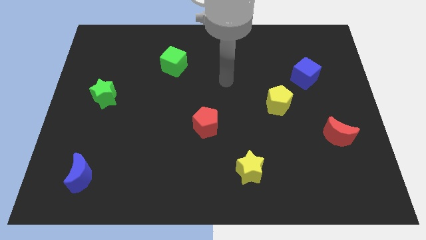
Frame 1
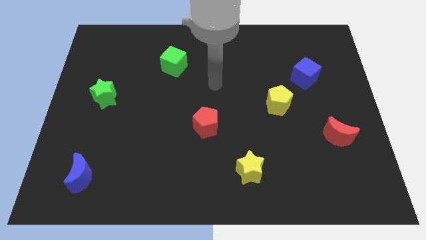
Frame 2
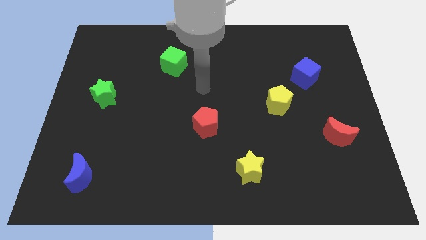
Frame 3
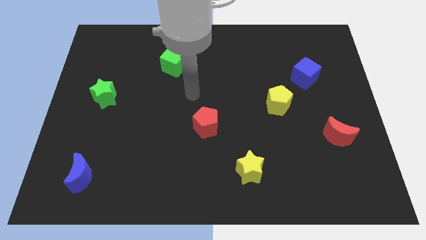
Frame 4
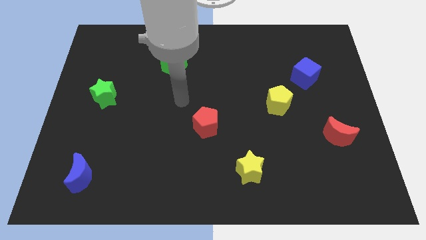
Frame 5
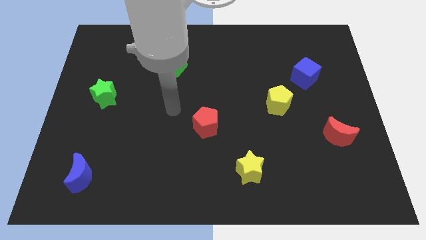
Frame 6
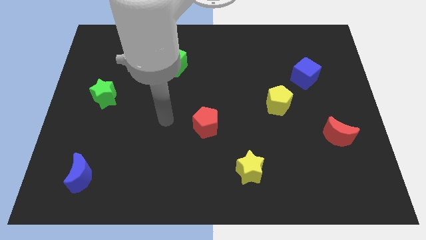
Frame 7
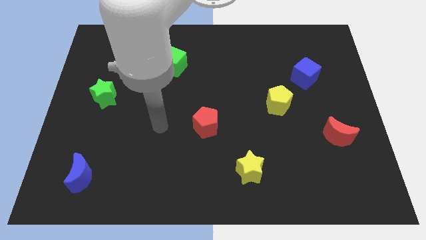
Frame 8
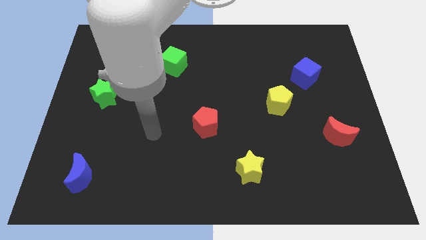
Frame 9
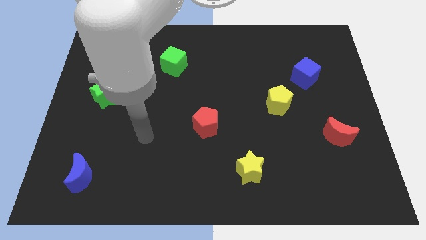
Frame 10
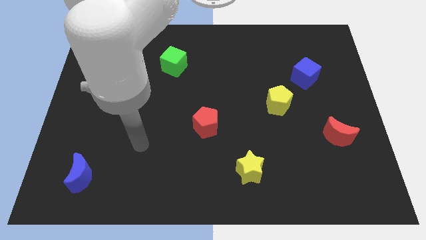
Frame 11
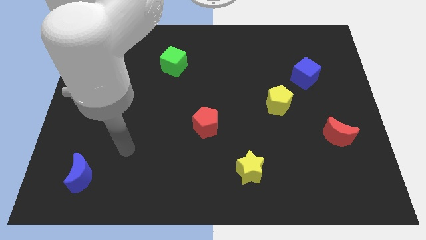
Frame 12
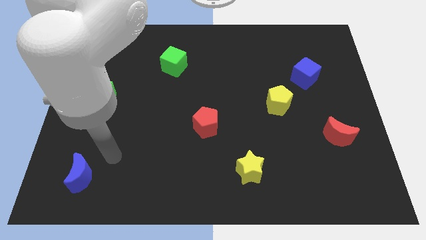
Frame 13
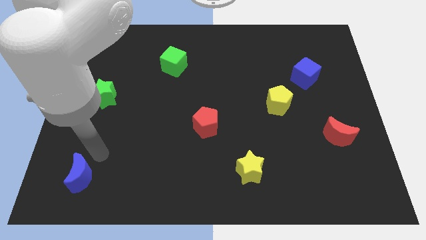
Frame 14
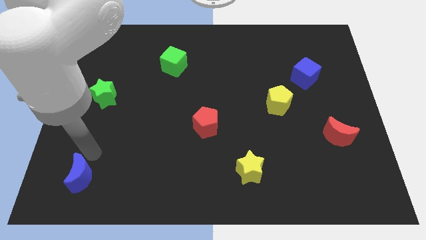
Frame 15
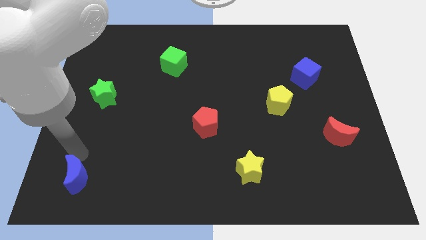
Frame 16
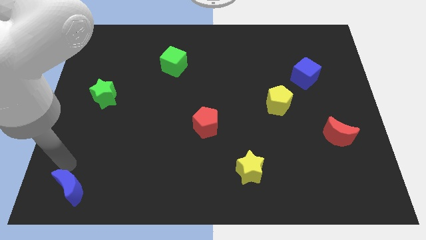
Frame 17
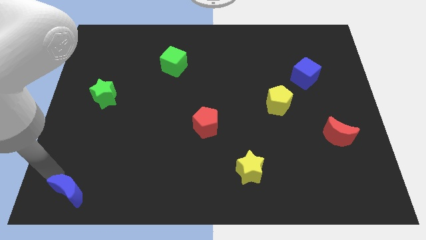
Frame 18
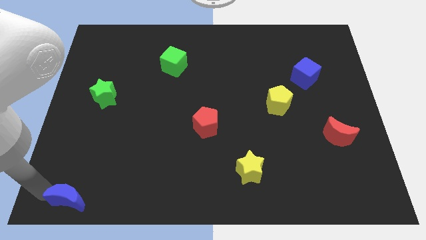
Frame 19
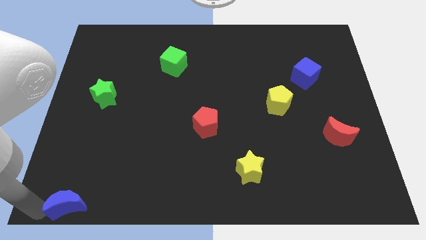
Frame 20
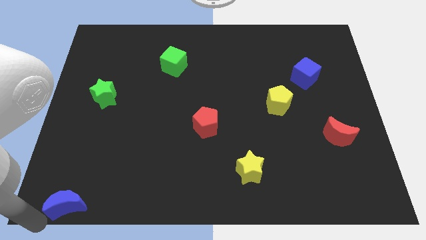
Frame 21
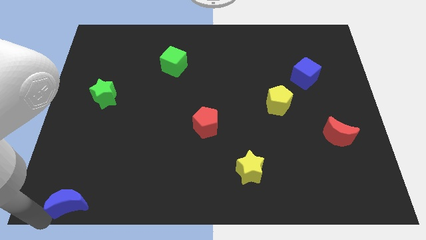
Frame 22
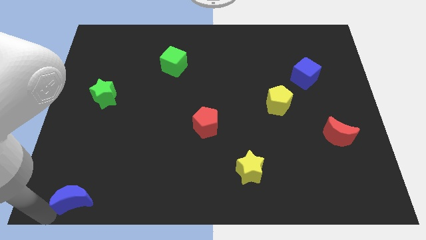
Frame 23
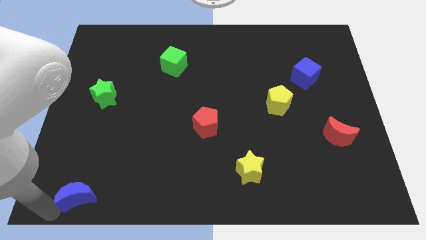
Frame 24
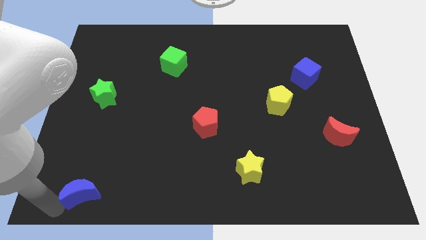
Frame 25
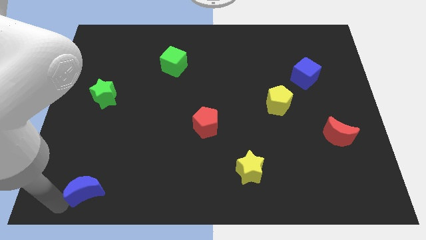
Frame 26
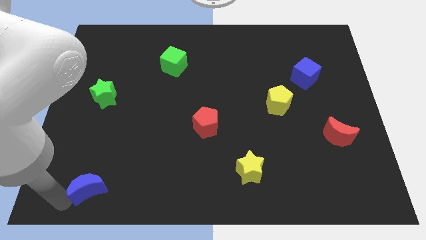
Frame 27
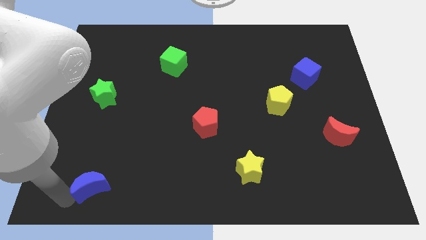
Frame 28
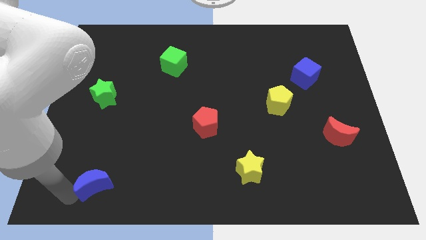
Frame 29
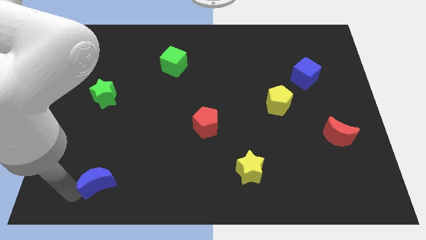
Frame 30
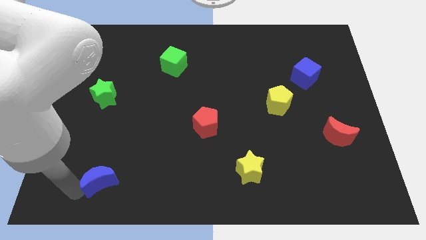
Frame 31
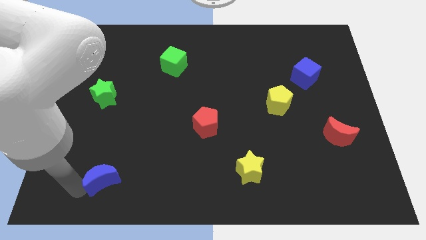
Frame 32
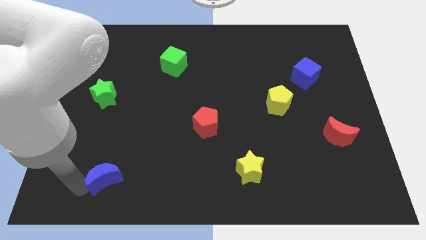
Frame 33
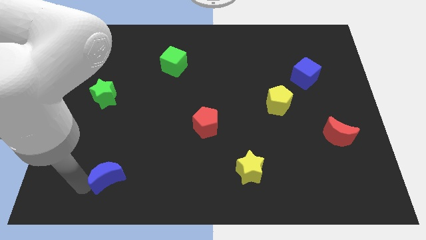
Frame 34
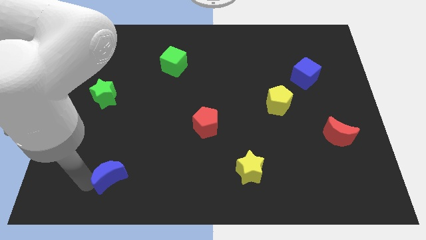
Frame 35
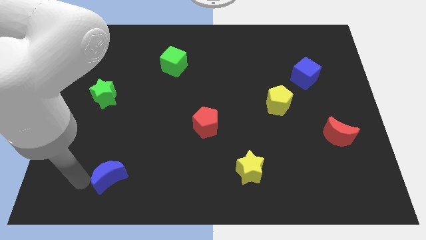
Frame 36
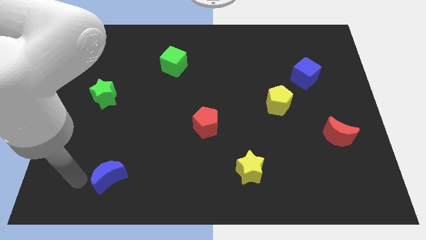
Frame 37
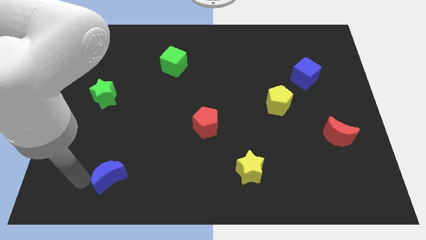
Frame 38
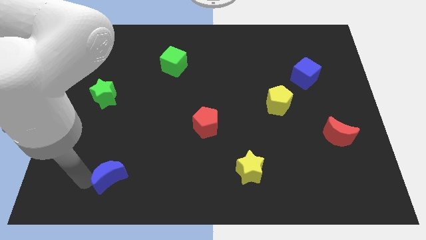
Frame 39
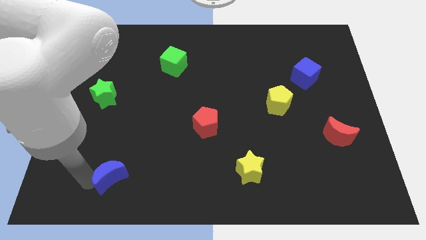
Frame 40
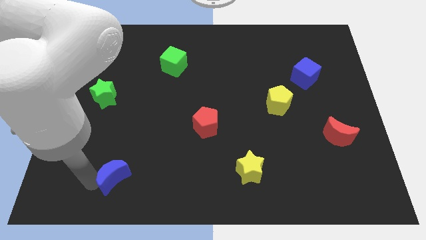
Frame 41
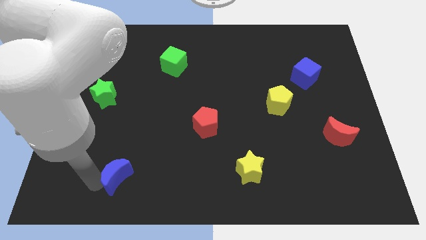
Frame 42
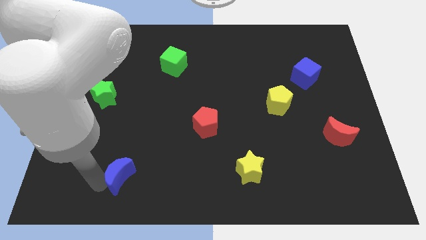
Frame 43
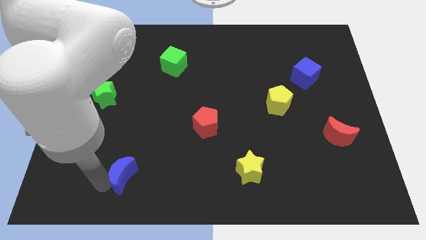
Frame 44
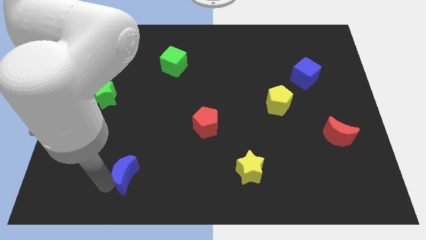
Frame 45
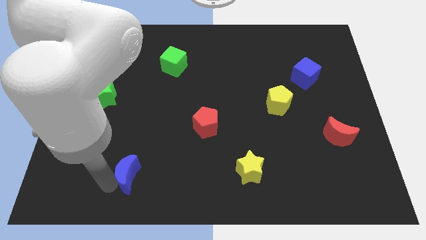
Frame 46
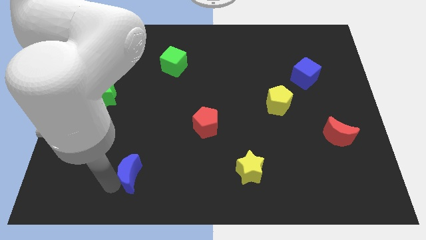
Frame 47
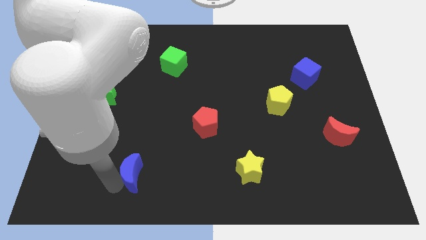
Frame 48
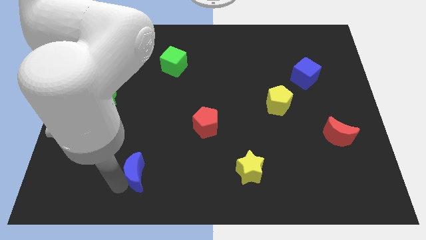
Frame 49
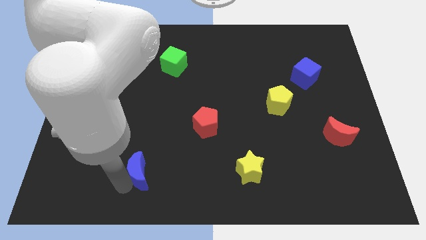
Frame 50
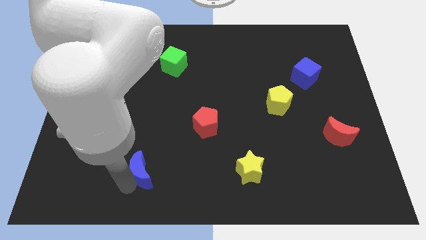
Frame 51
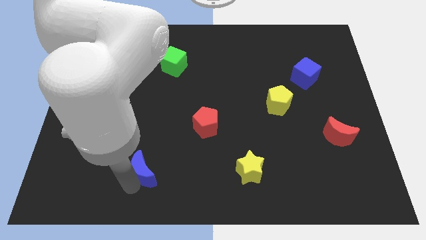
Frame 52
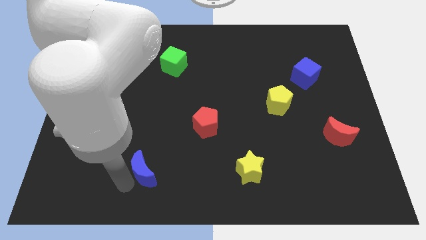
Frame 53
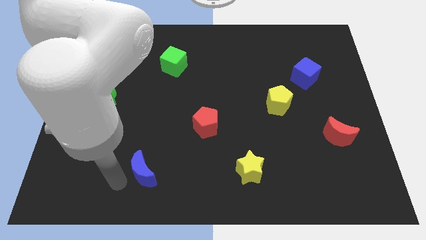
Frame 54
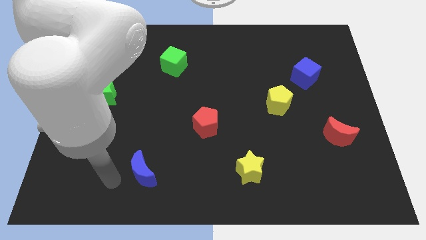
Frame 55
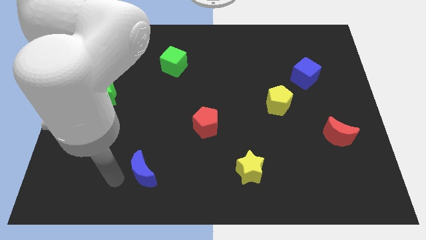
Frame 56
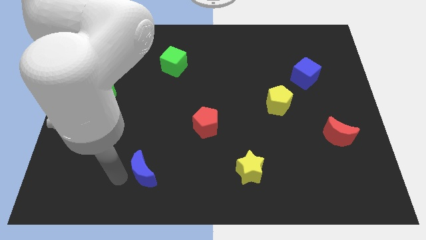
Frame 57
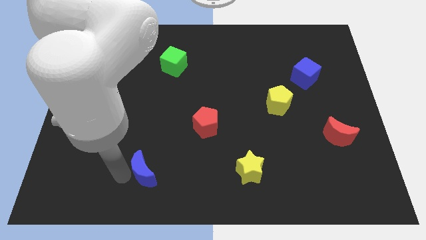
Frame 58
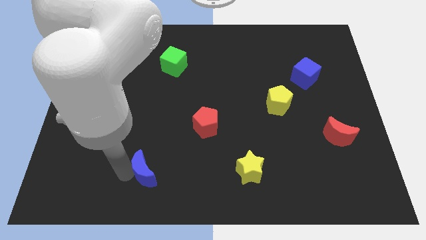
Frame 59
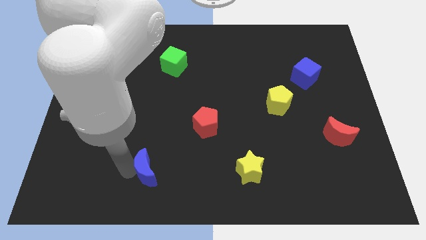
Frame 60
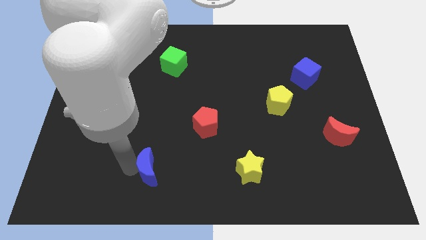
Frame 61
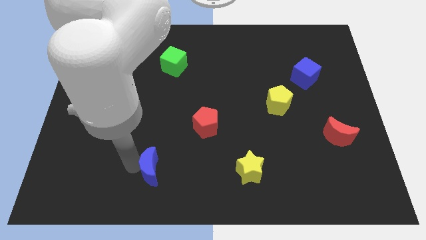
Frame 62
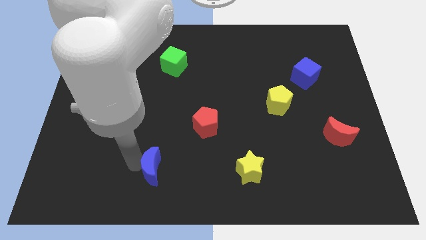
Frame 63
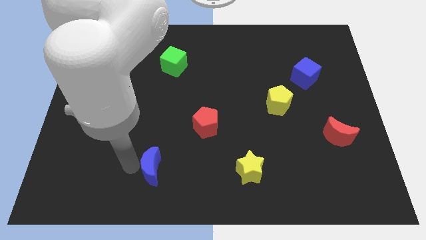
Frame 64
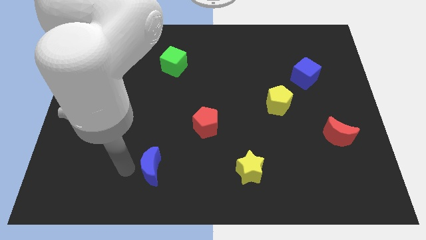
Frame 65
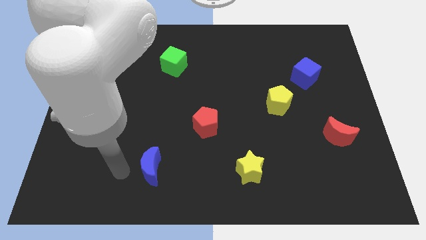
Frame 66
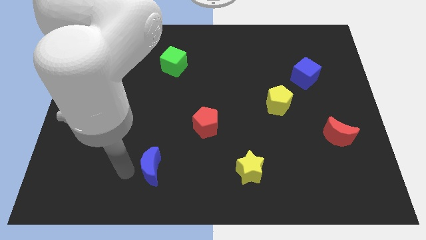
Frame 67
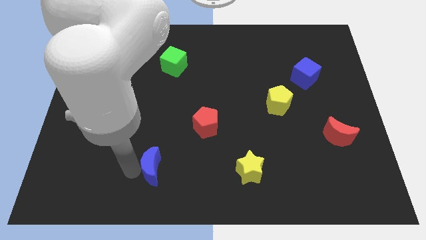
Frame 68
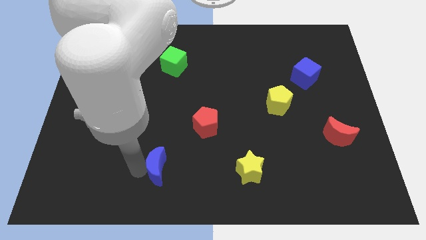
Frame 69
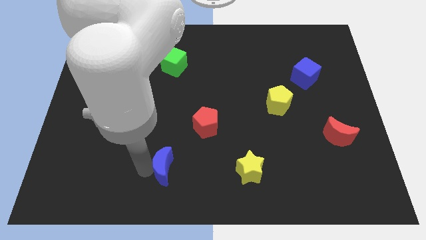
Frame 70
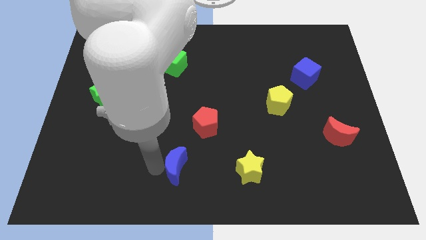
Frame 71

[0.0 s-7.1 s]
push the blue moon to the left side of the yellow star

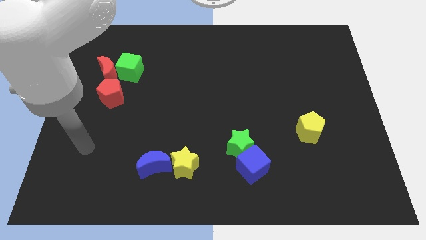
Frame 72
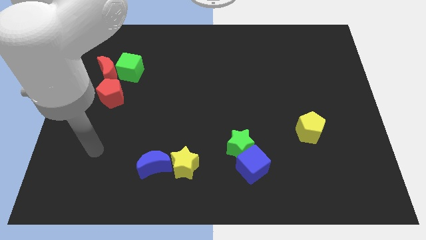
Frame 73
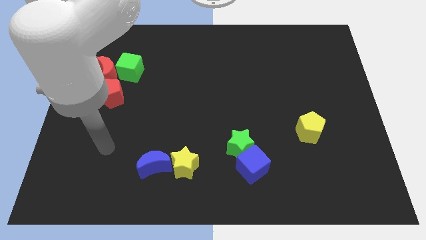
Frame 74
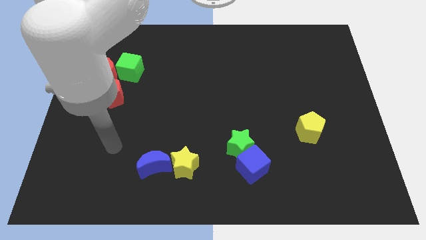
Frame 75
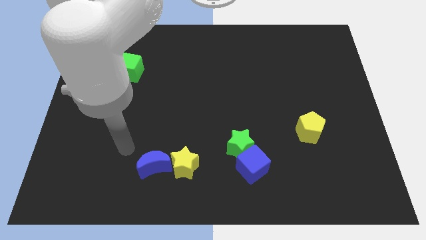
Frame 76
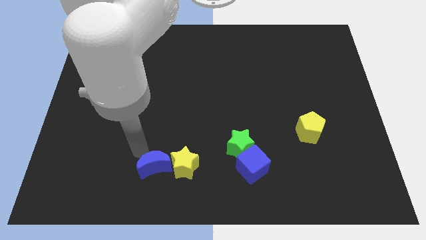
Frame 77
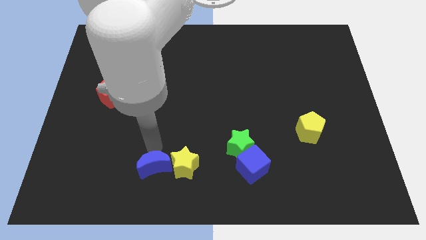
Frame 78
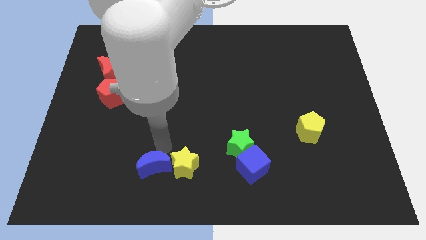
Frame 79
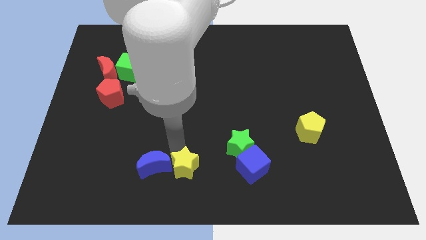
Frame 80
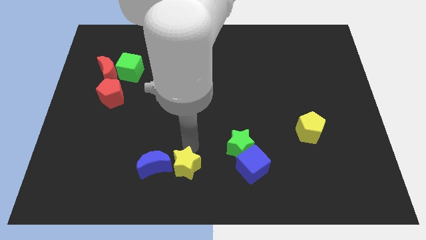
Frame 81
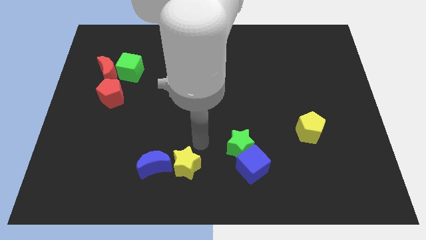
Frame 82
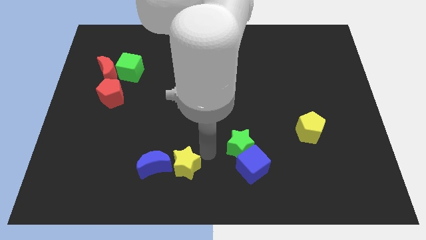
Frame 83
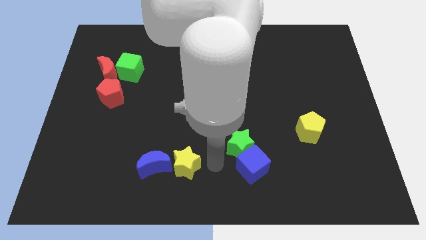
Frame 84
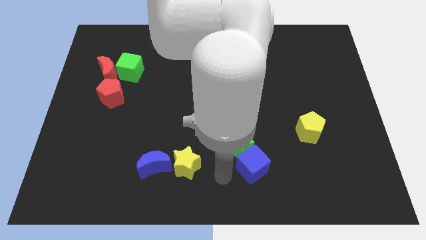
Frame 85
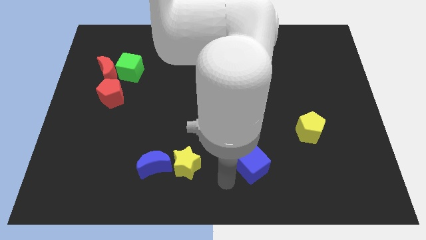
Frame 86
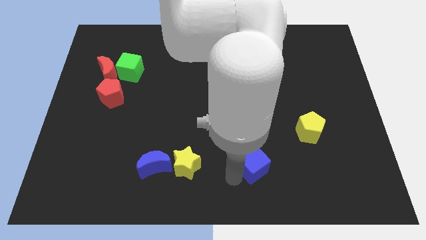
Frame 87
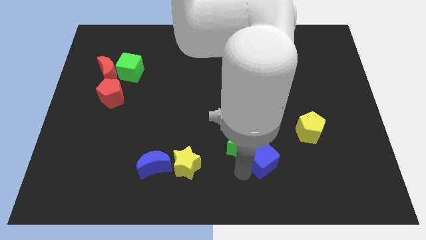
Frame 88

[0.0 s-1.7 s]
put the blue cube to the right of the green star
